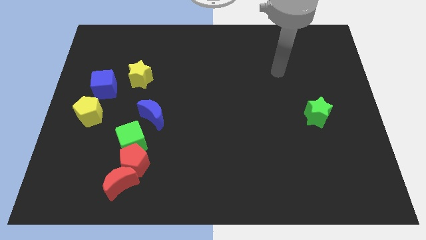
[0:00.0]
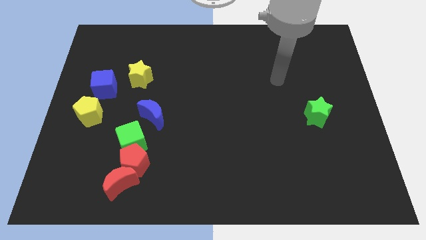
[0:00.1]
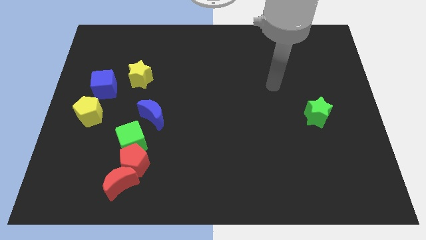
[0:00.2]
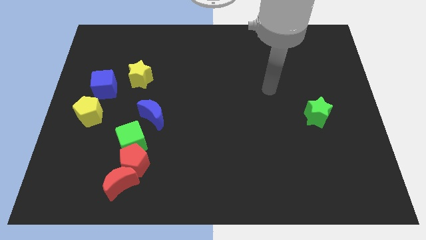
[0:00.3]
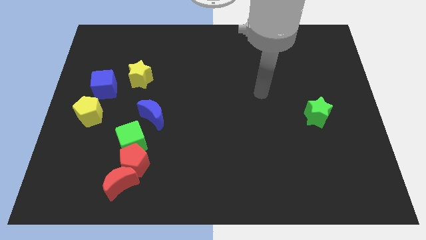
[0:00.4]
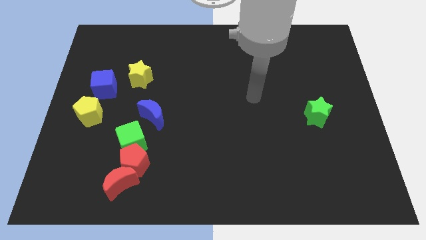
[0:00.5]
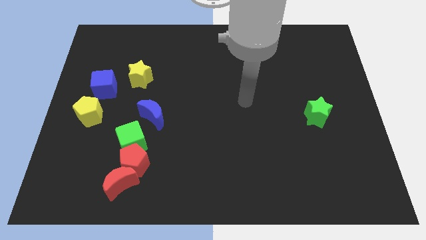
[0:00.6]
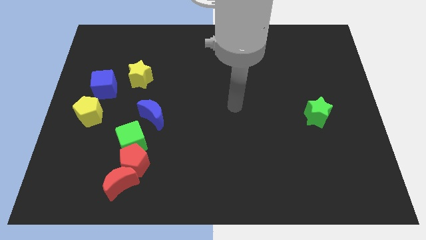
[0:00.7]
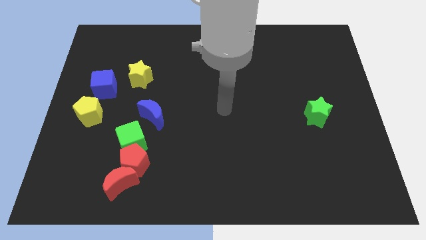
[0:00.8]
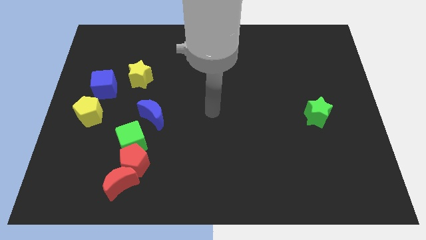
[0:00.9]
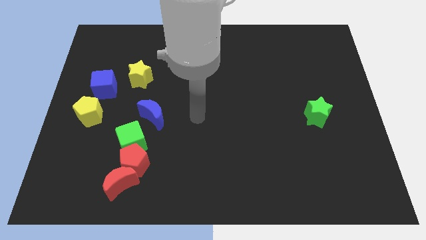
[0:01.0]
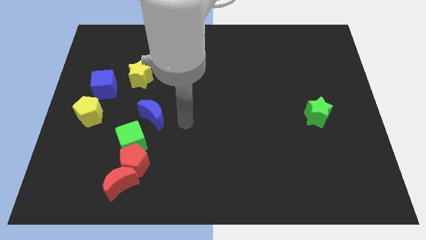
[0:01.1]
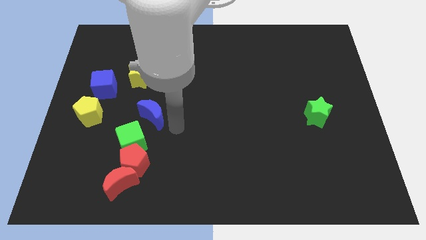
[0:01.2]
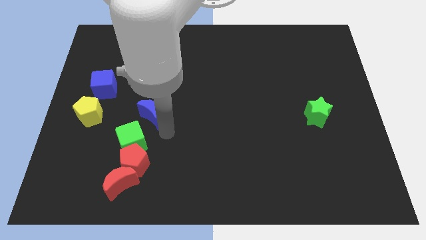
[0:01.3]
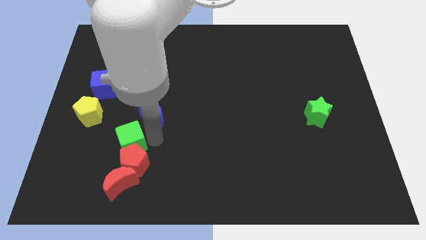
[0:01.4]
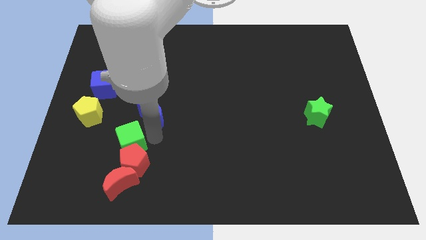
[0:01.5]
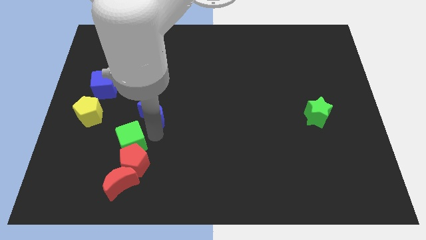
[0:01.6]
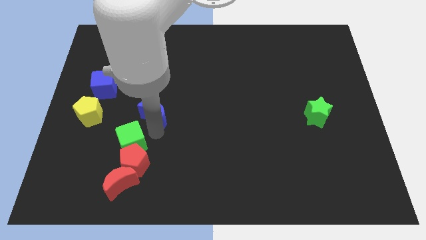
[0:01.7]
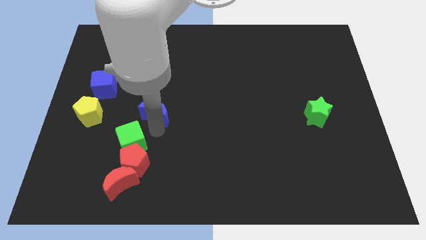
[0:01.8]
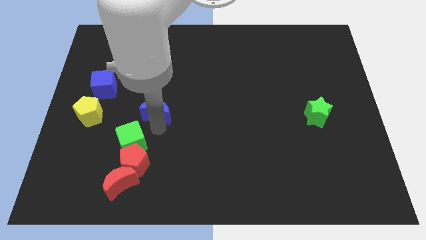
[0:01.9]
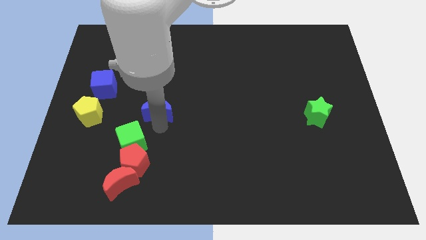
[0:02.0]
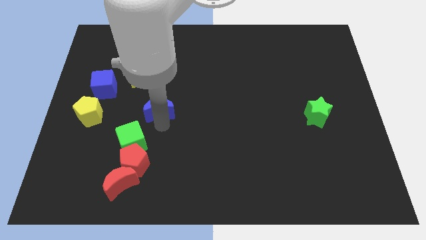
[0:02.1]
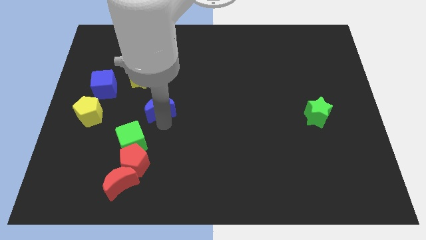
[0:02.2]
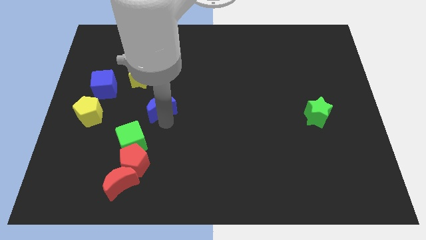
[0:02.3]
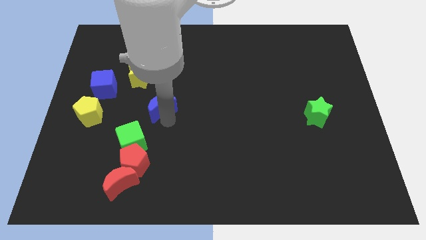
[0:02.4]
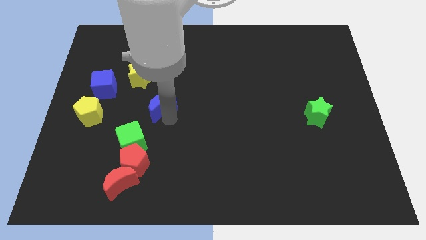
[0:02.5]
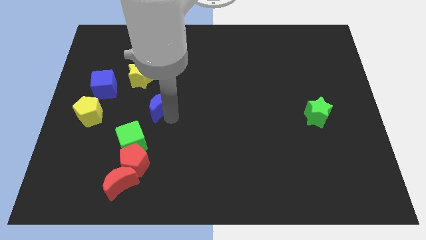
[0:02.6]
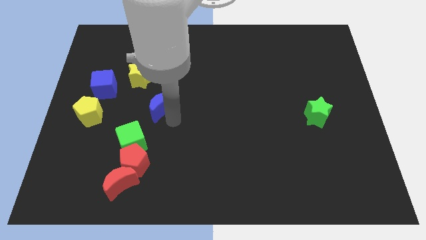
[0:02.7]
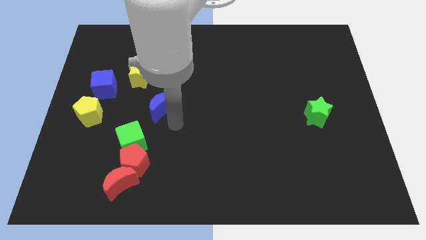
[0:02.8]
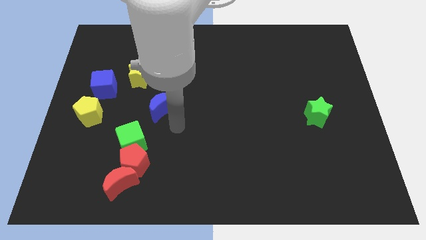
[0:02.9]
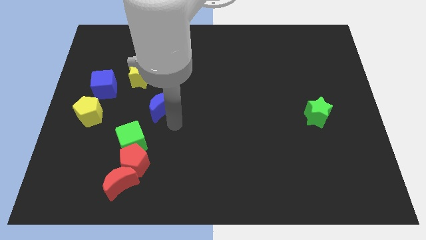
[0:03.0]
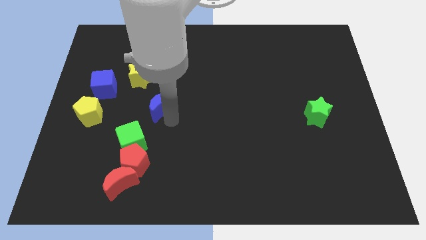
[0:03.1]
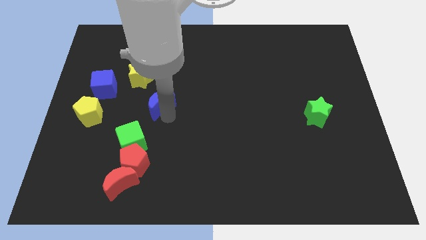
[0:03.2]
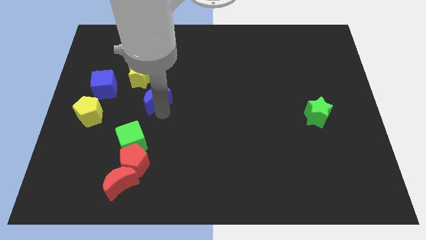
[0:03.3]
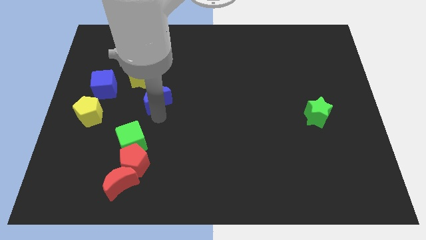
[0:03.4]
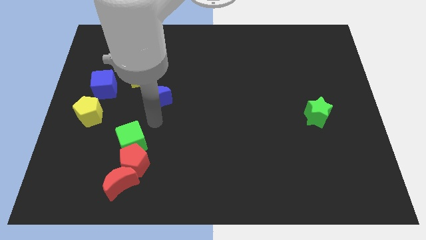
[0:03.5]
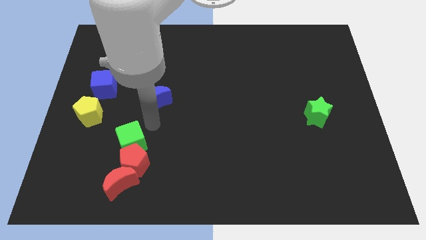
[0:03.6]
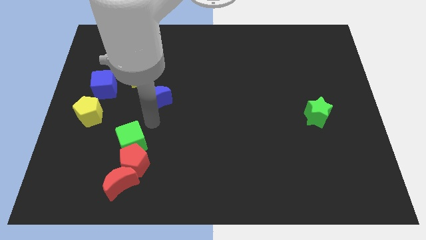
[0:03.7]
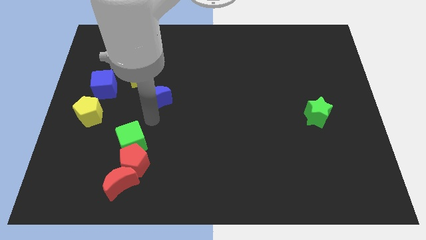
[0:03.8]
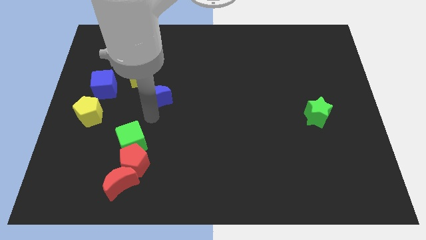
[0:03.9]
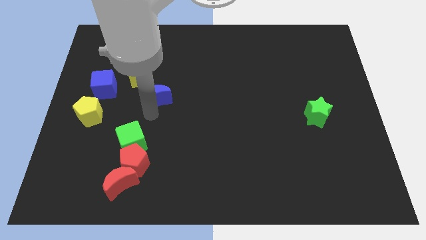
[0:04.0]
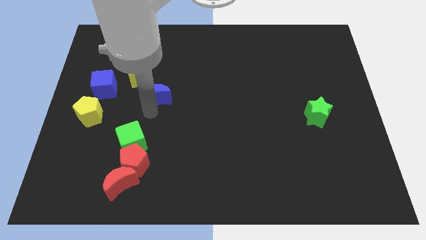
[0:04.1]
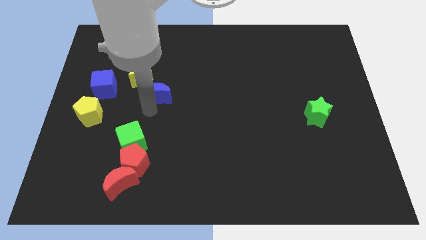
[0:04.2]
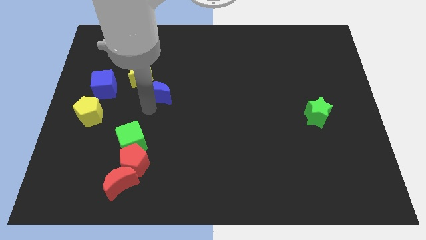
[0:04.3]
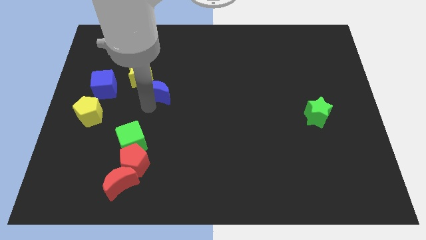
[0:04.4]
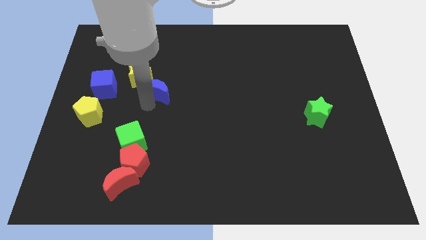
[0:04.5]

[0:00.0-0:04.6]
slide the blue moon up a little bit

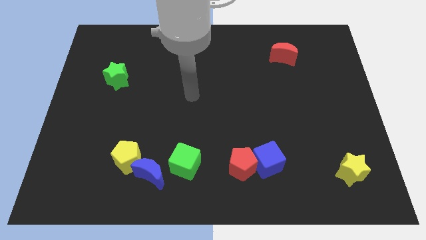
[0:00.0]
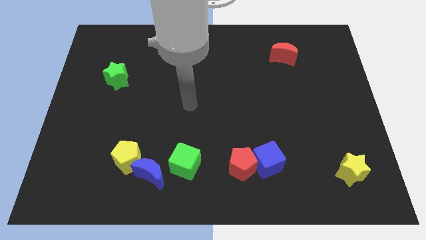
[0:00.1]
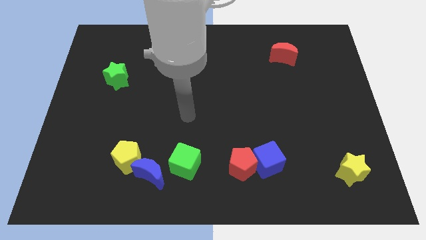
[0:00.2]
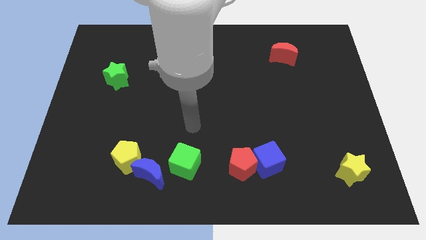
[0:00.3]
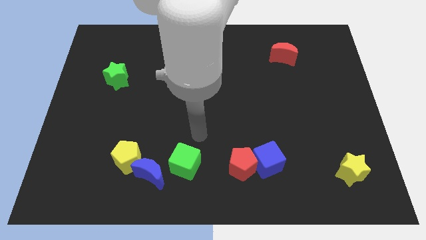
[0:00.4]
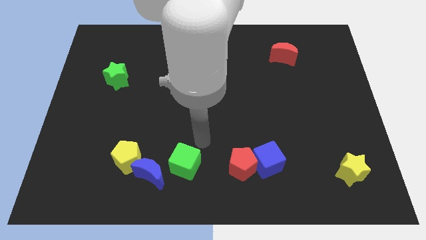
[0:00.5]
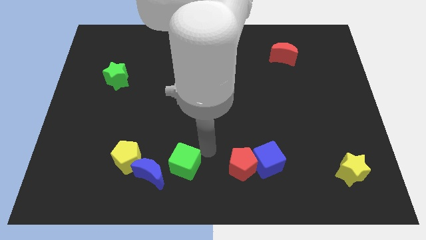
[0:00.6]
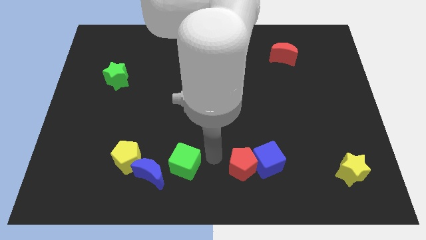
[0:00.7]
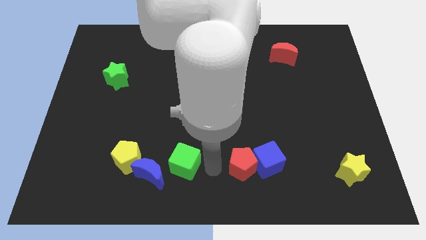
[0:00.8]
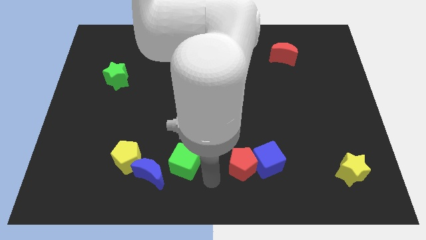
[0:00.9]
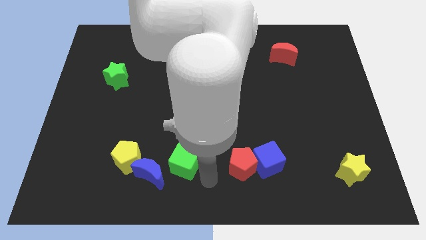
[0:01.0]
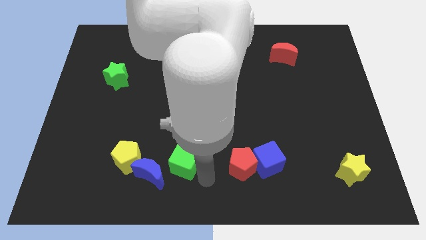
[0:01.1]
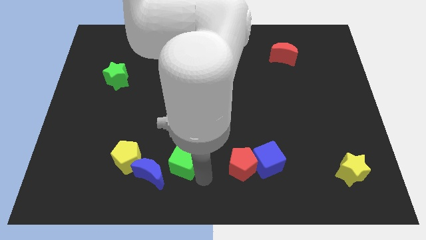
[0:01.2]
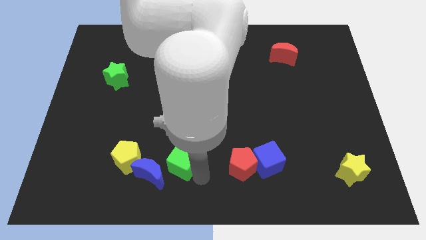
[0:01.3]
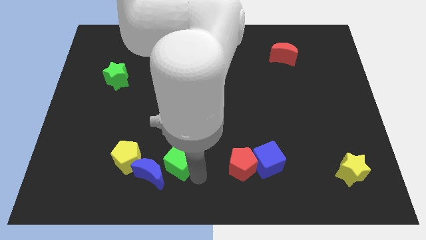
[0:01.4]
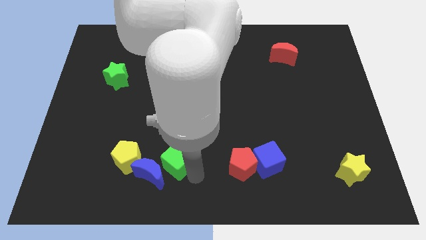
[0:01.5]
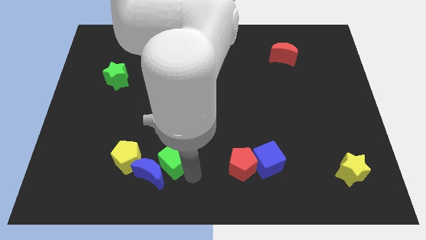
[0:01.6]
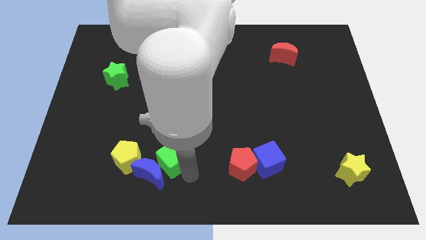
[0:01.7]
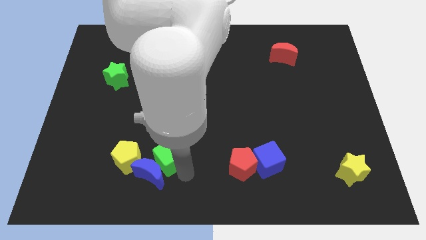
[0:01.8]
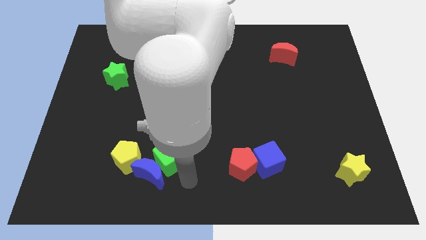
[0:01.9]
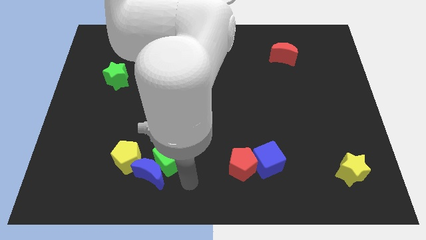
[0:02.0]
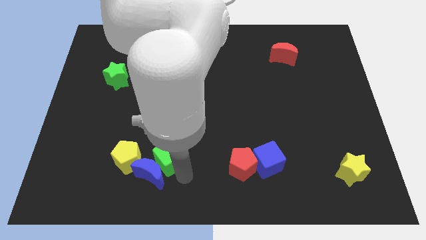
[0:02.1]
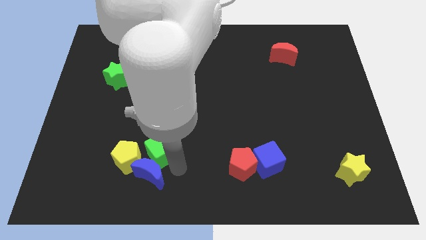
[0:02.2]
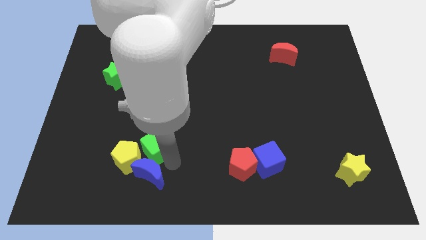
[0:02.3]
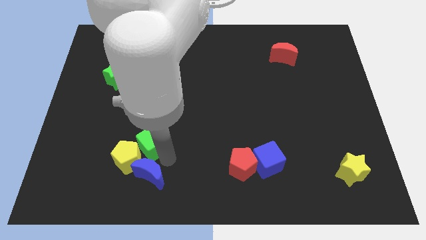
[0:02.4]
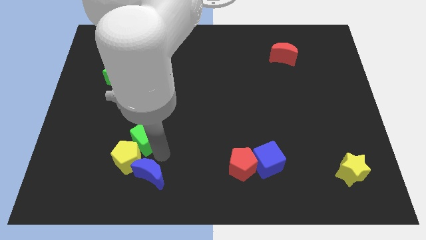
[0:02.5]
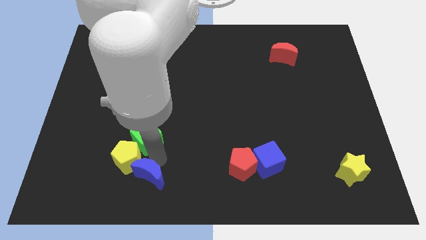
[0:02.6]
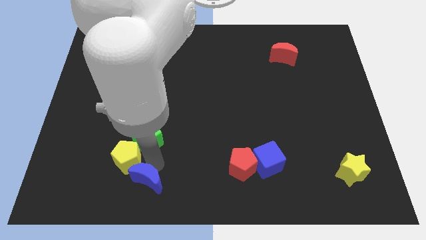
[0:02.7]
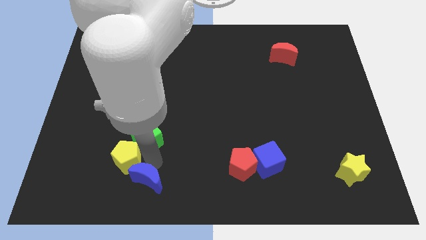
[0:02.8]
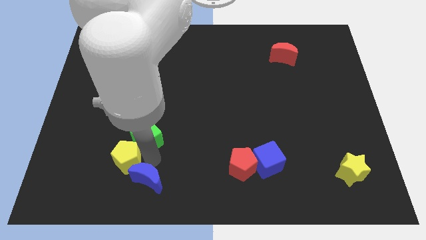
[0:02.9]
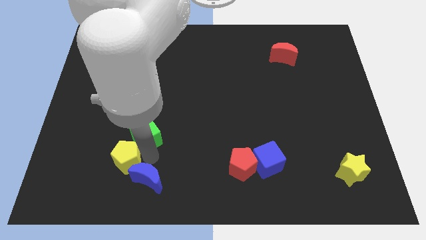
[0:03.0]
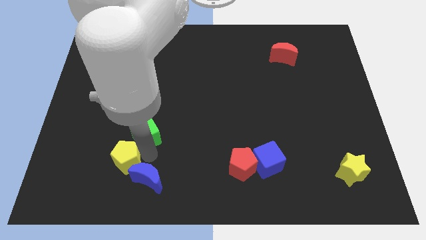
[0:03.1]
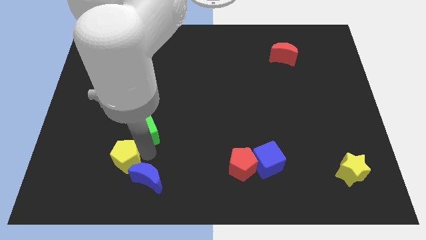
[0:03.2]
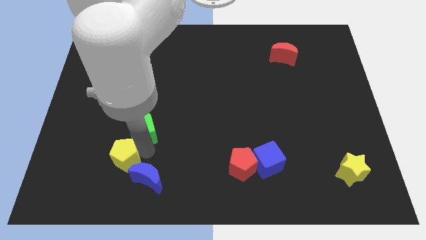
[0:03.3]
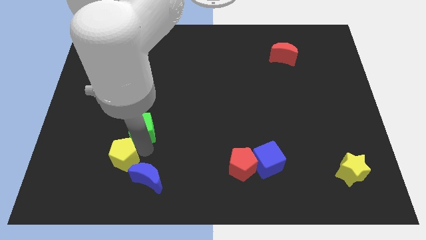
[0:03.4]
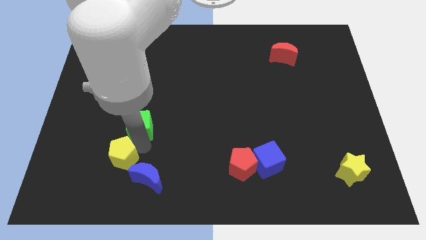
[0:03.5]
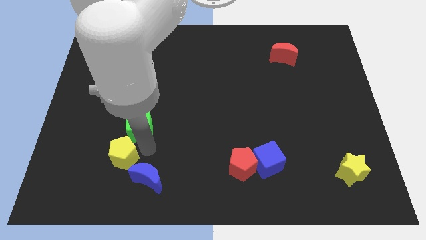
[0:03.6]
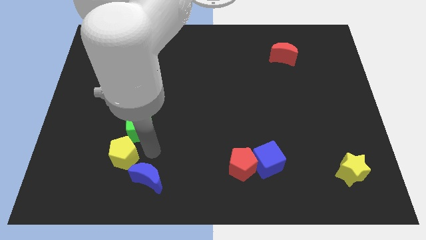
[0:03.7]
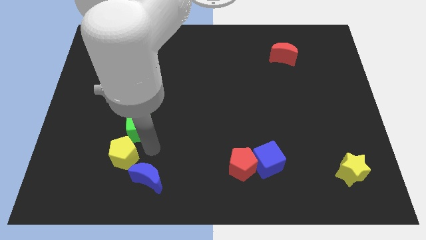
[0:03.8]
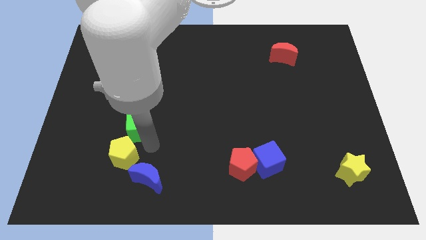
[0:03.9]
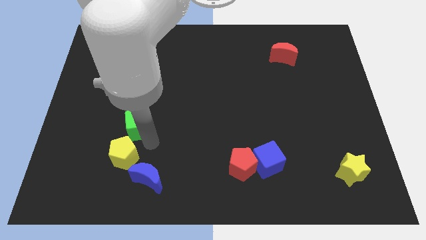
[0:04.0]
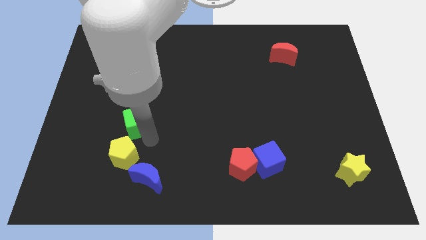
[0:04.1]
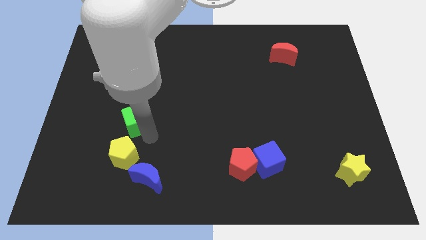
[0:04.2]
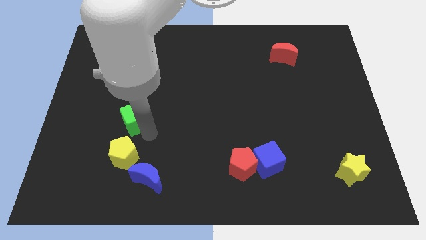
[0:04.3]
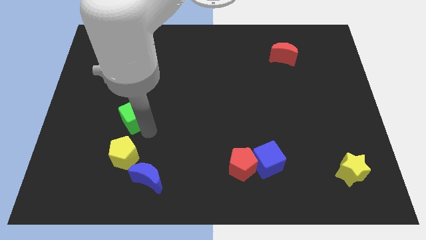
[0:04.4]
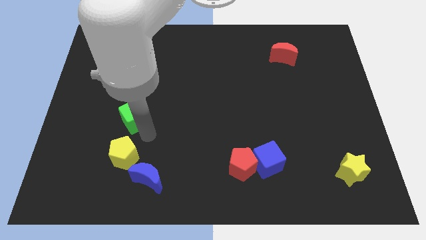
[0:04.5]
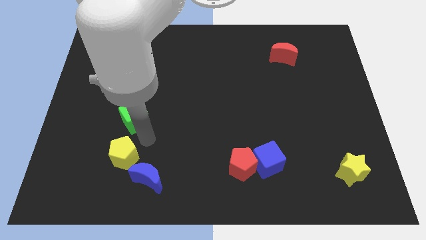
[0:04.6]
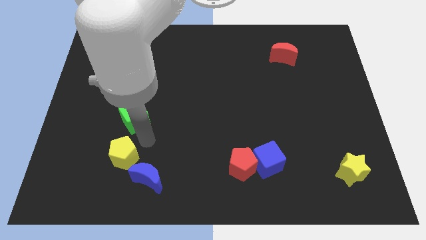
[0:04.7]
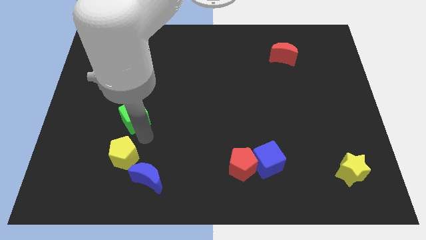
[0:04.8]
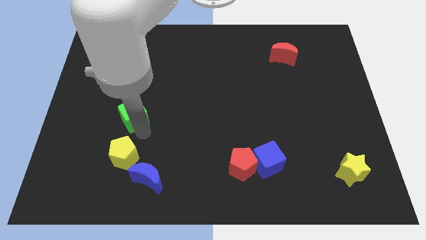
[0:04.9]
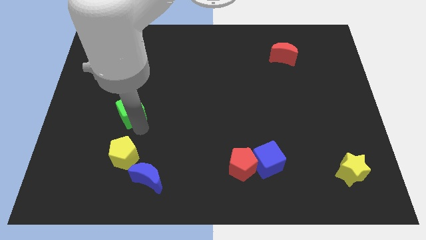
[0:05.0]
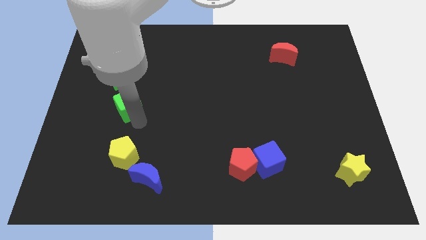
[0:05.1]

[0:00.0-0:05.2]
slide the green cube diagonally upwards and to the left
